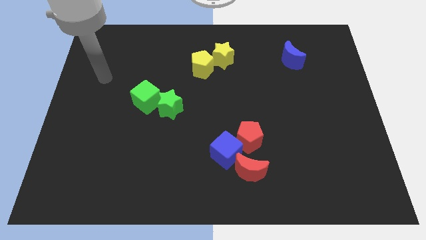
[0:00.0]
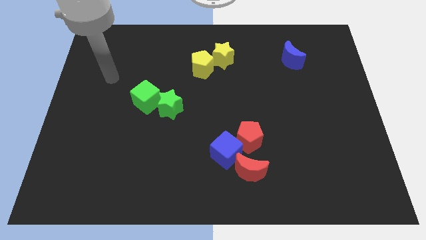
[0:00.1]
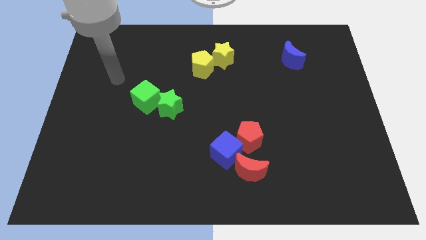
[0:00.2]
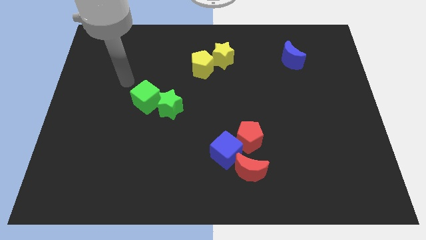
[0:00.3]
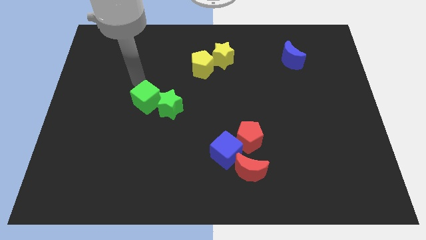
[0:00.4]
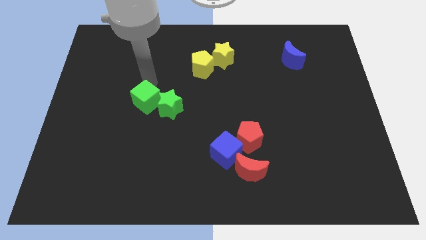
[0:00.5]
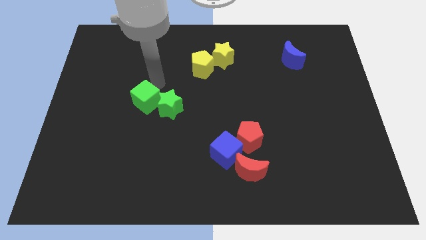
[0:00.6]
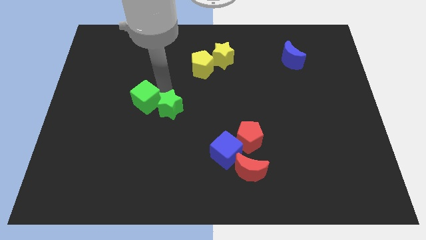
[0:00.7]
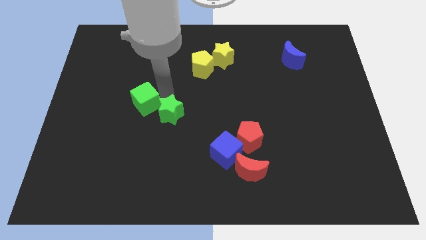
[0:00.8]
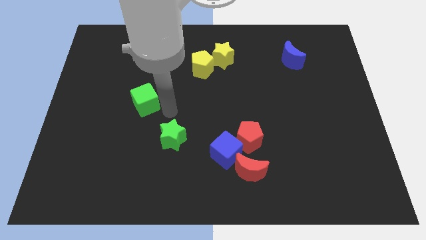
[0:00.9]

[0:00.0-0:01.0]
move the green cube away from the green star

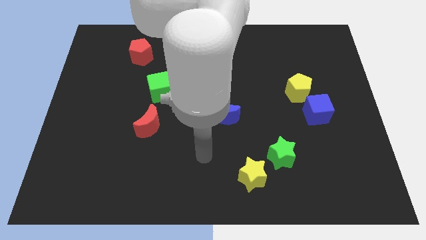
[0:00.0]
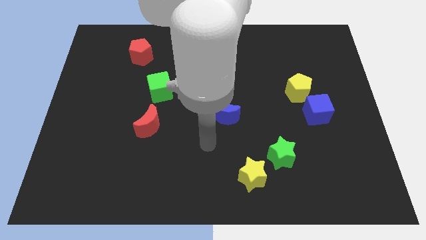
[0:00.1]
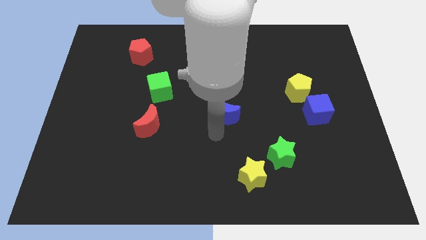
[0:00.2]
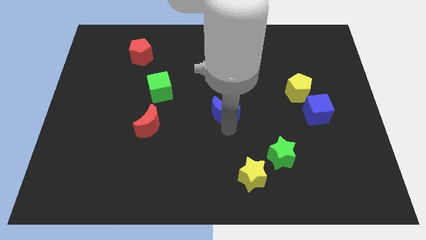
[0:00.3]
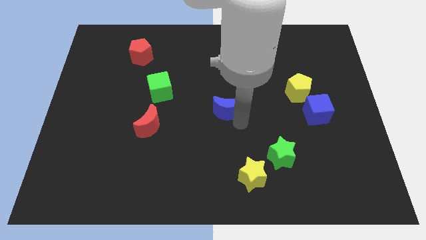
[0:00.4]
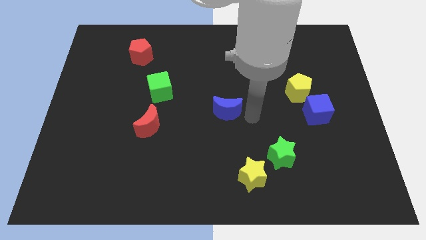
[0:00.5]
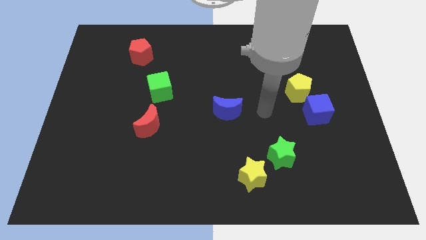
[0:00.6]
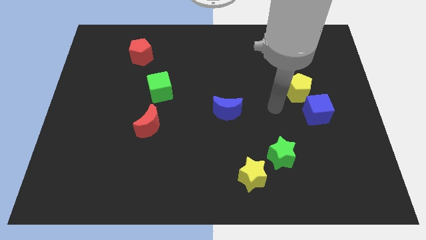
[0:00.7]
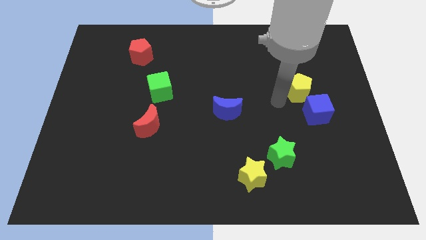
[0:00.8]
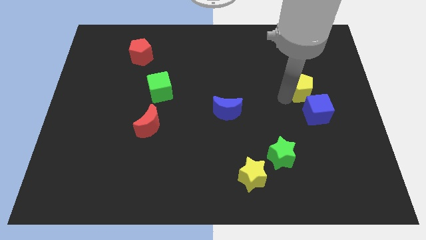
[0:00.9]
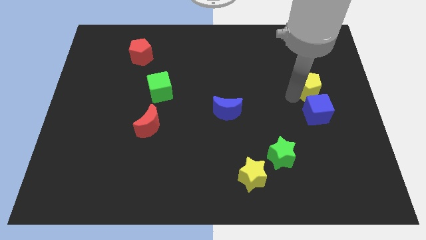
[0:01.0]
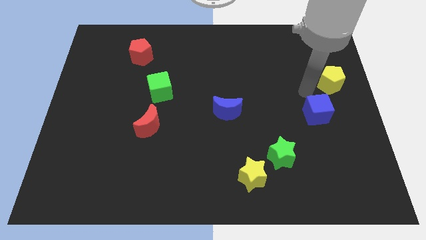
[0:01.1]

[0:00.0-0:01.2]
move the blue cube away from the yellow pentagon

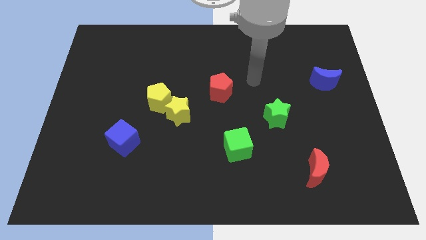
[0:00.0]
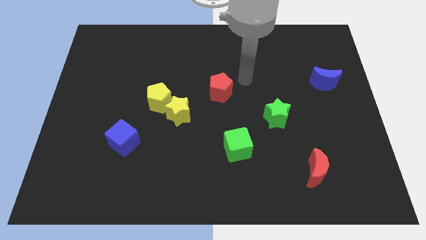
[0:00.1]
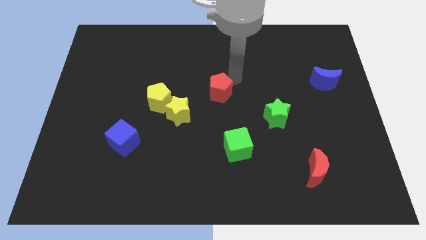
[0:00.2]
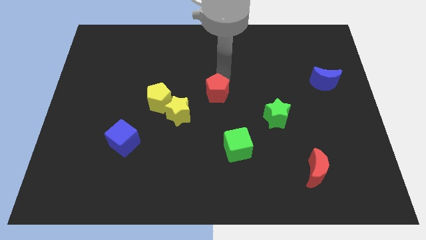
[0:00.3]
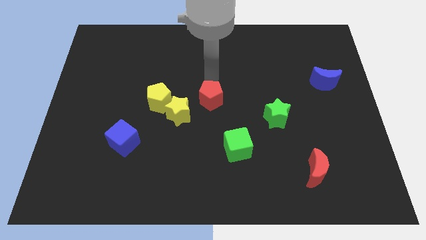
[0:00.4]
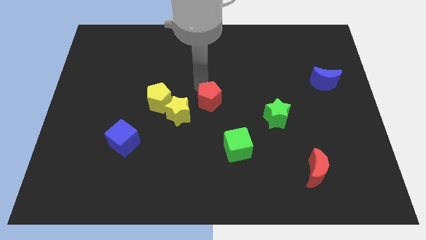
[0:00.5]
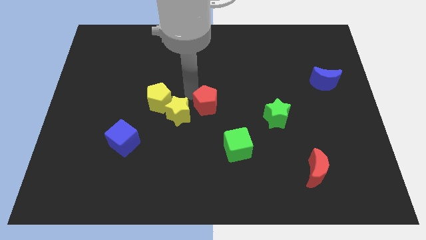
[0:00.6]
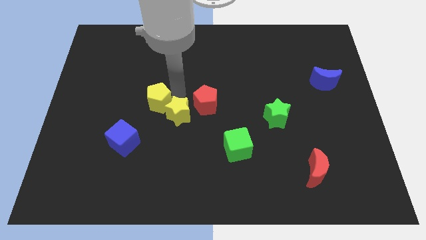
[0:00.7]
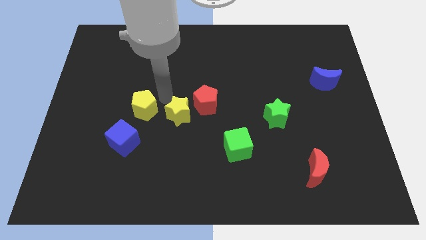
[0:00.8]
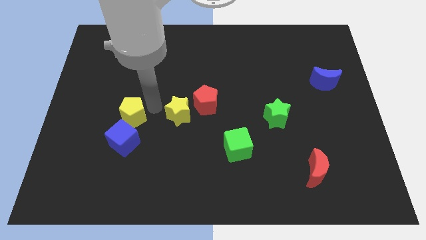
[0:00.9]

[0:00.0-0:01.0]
pull the yellow star apart from the yellow pentagon

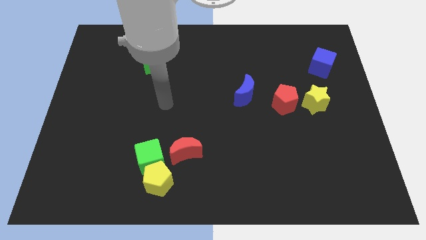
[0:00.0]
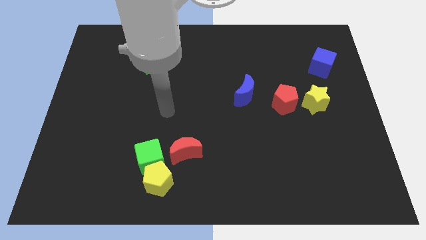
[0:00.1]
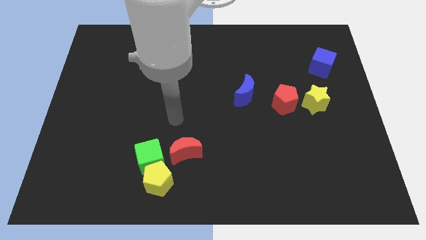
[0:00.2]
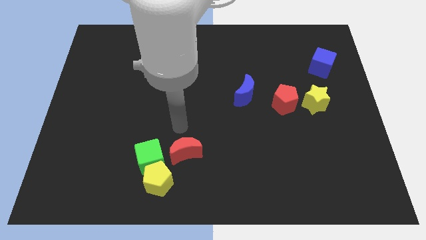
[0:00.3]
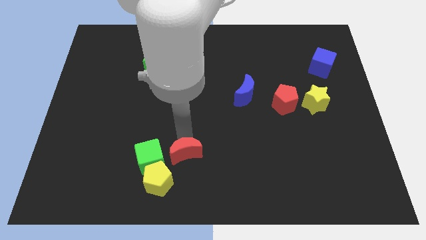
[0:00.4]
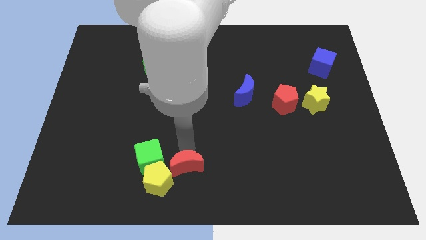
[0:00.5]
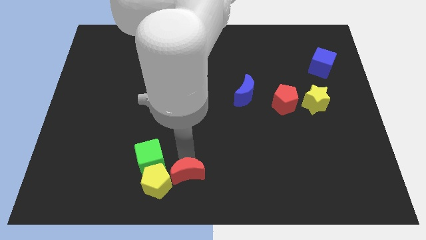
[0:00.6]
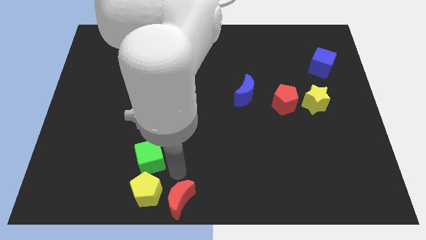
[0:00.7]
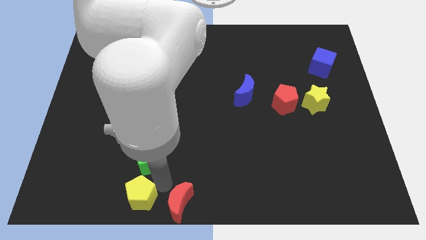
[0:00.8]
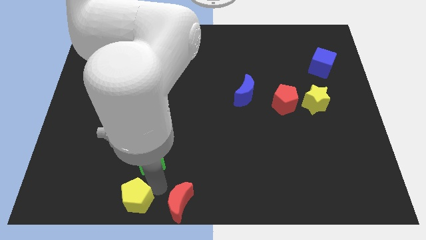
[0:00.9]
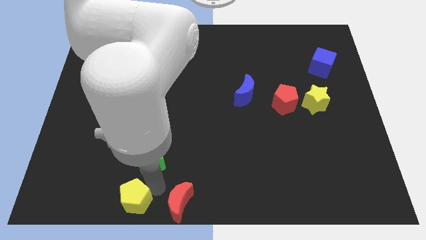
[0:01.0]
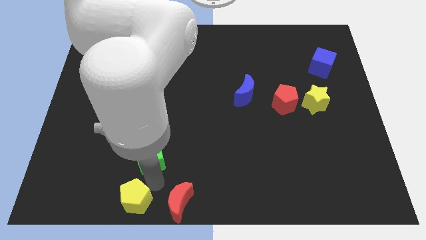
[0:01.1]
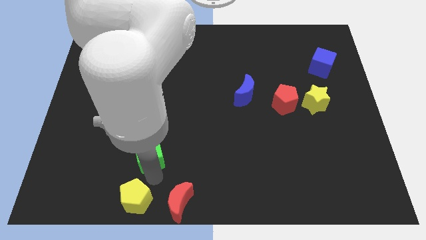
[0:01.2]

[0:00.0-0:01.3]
separate the green cube from the yellow pentagon and red moon

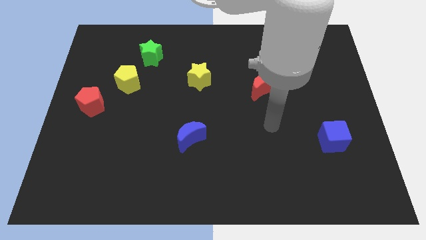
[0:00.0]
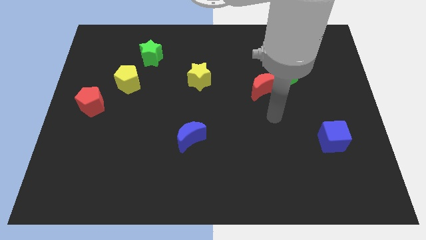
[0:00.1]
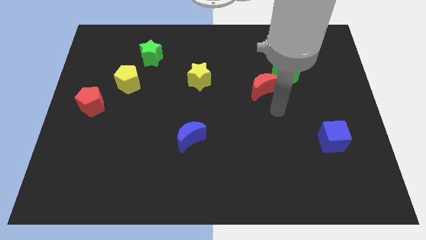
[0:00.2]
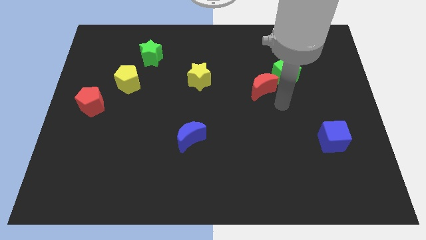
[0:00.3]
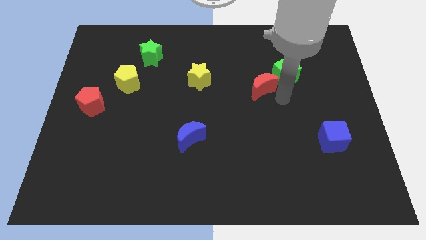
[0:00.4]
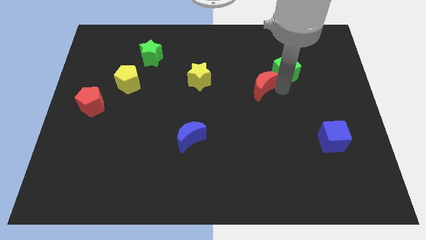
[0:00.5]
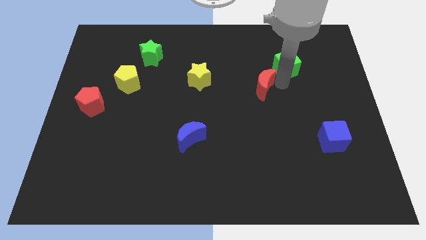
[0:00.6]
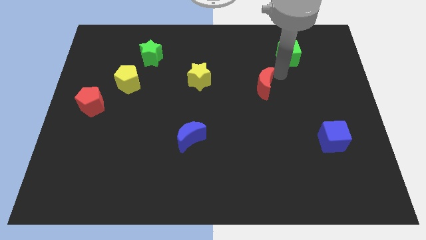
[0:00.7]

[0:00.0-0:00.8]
move the red moon away from the green cube

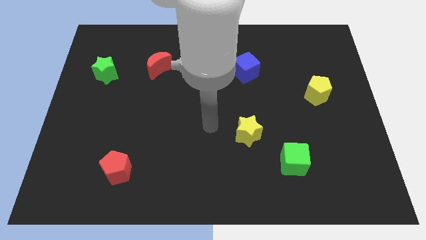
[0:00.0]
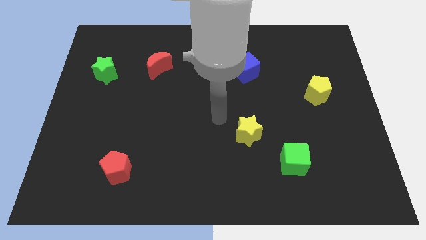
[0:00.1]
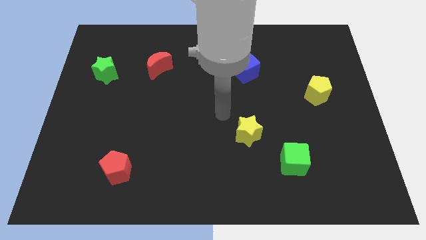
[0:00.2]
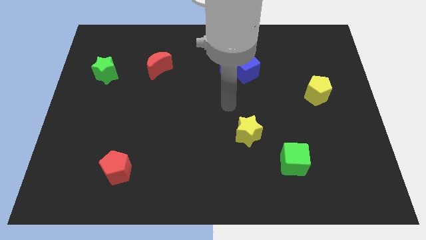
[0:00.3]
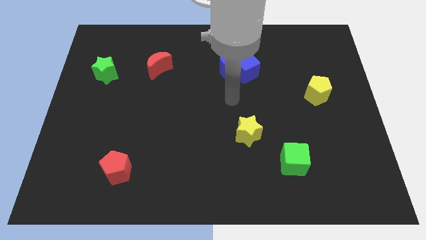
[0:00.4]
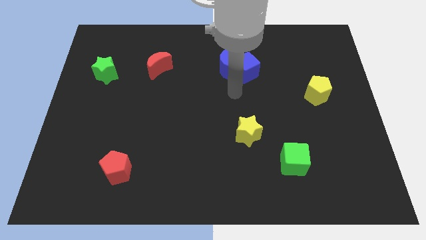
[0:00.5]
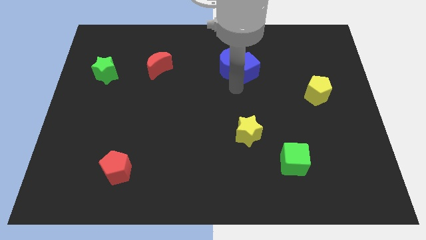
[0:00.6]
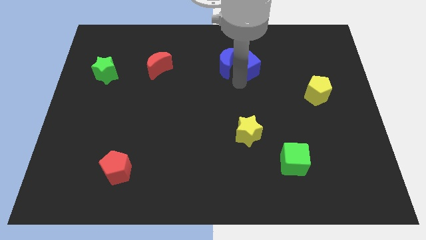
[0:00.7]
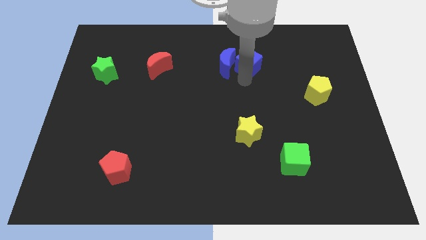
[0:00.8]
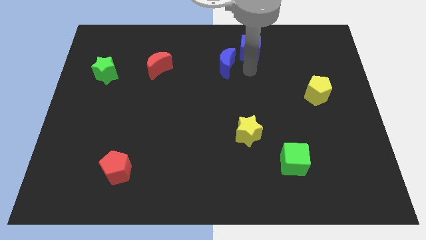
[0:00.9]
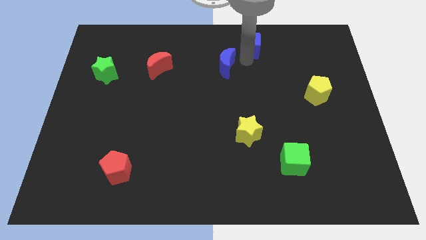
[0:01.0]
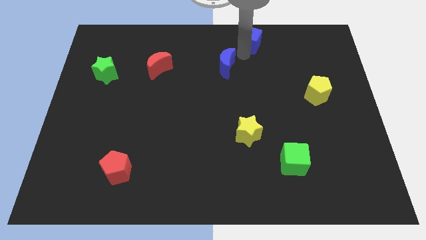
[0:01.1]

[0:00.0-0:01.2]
separate the blue moon from the blue cube

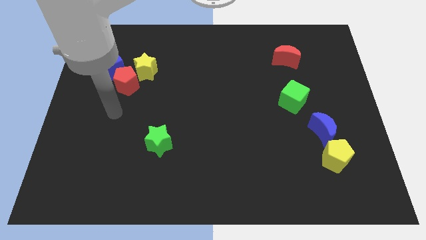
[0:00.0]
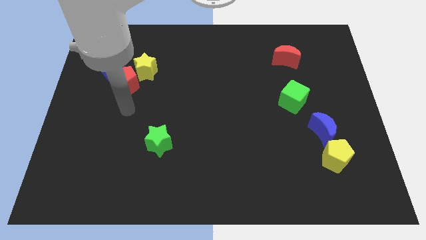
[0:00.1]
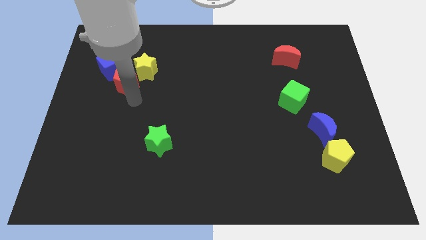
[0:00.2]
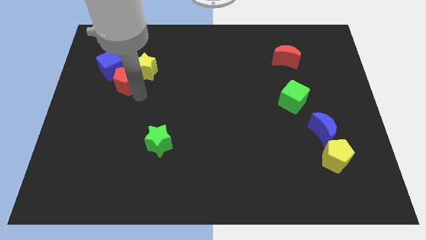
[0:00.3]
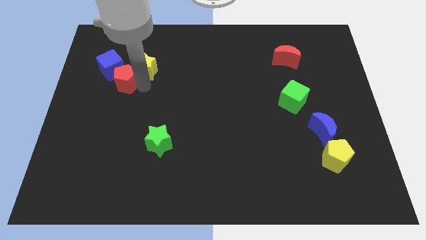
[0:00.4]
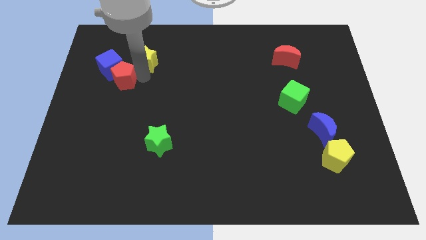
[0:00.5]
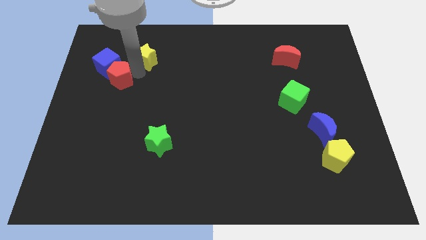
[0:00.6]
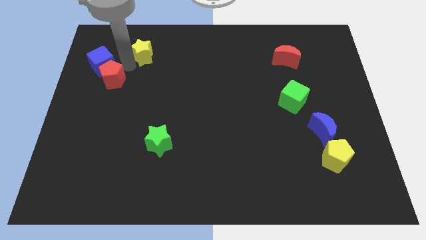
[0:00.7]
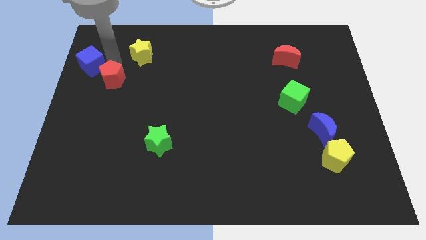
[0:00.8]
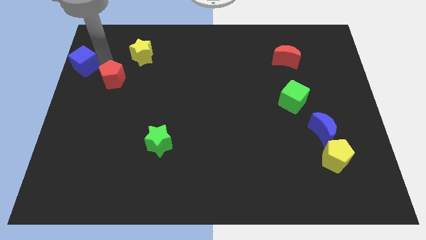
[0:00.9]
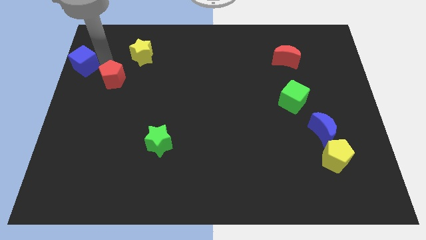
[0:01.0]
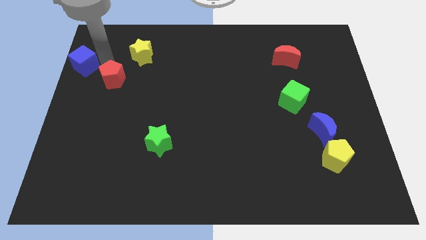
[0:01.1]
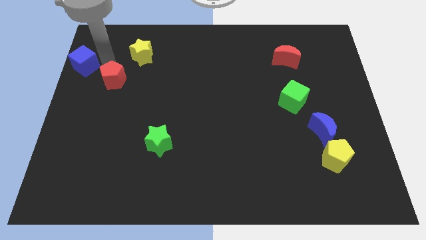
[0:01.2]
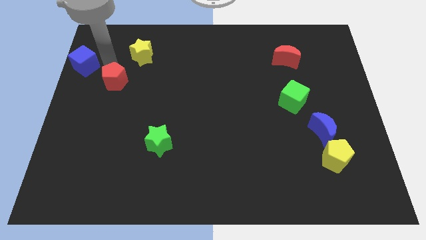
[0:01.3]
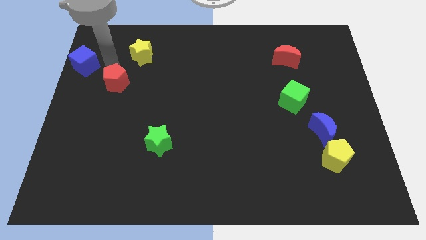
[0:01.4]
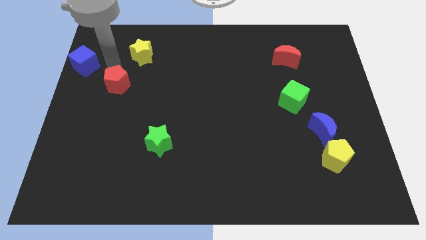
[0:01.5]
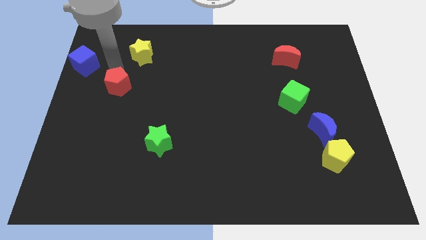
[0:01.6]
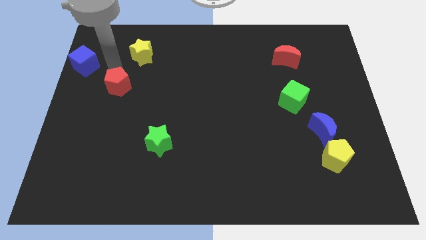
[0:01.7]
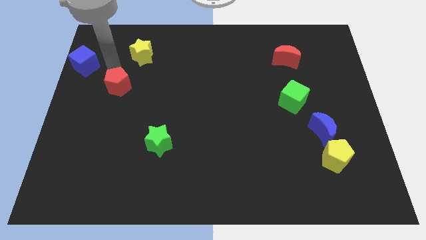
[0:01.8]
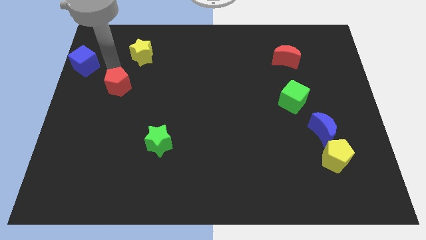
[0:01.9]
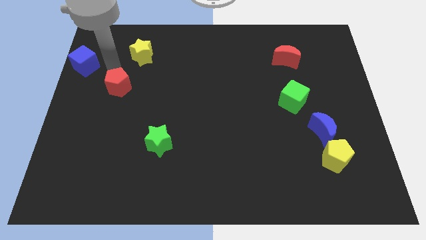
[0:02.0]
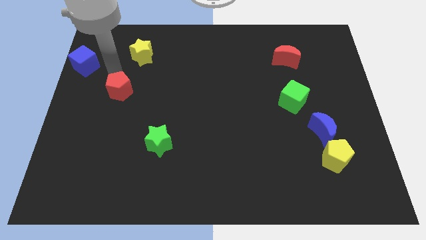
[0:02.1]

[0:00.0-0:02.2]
move the red pentagon away from the yellow star and blue cube

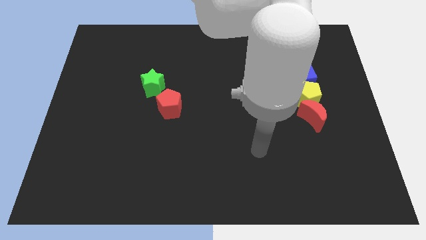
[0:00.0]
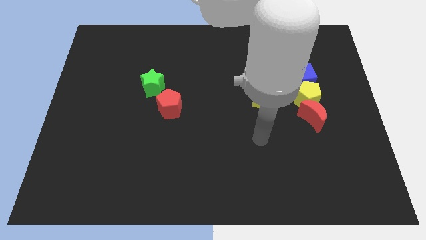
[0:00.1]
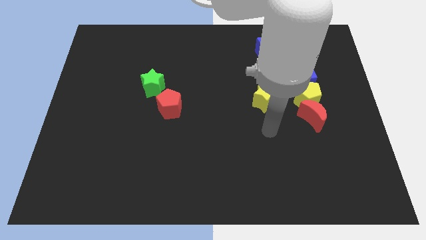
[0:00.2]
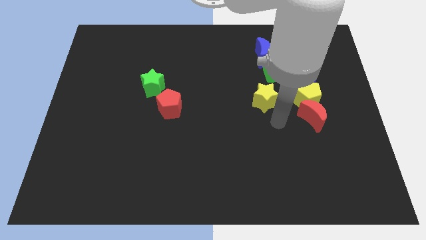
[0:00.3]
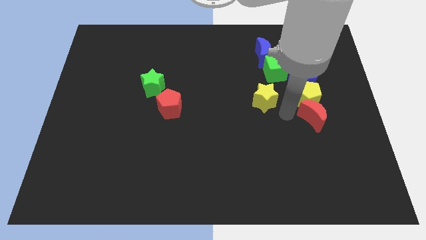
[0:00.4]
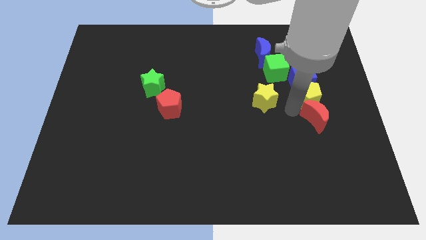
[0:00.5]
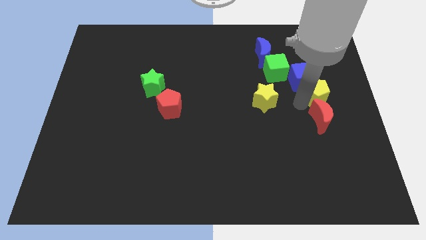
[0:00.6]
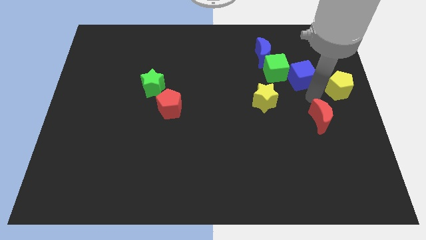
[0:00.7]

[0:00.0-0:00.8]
move the red moon away from the yellow pentagon

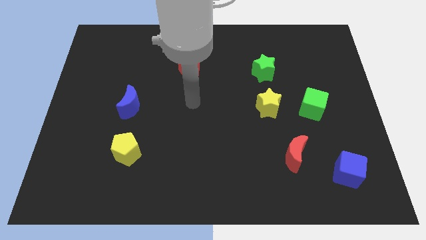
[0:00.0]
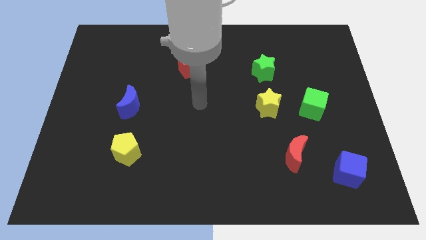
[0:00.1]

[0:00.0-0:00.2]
move the green cube away from the yellow star
